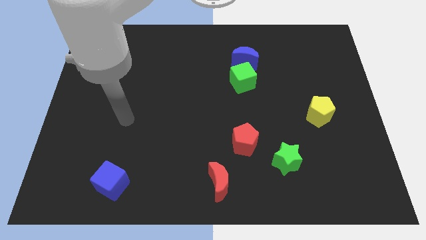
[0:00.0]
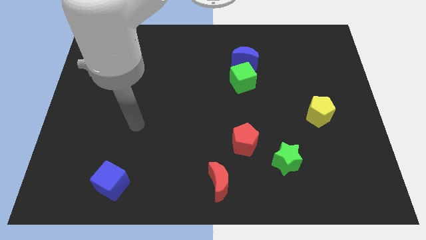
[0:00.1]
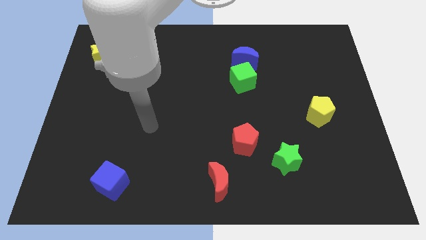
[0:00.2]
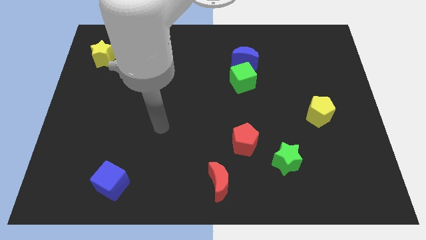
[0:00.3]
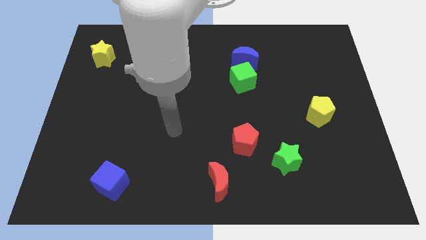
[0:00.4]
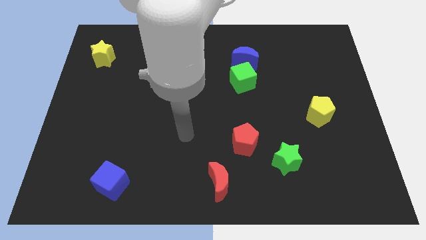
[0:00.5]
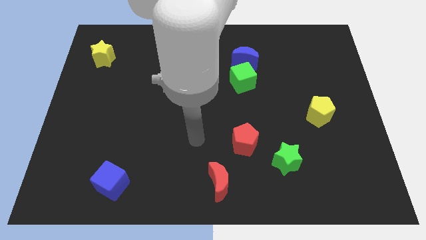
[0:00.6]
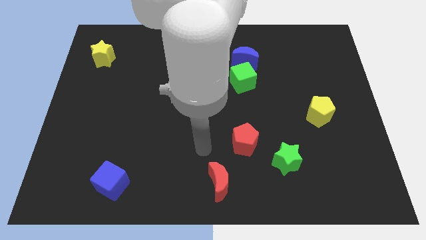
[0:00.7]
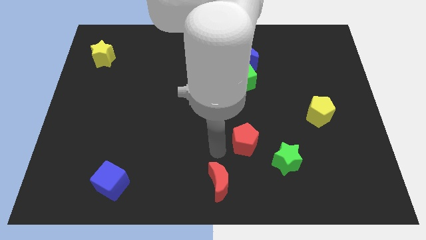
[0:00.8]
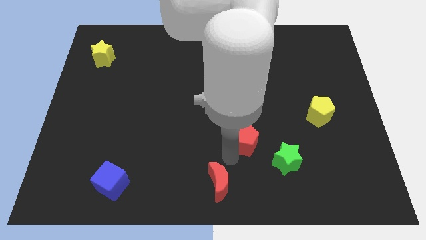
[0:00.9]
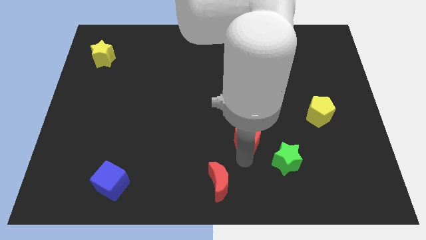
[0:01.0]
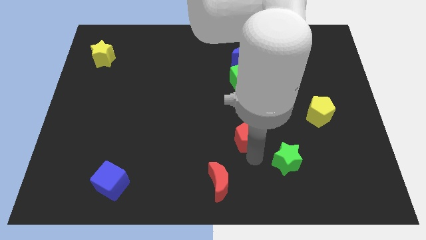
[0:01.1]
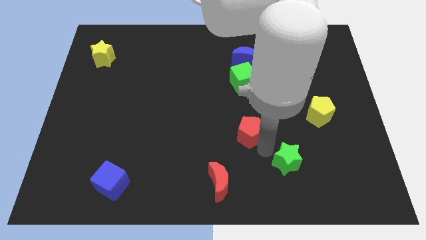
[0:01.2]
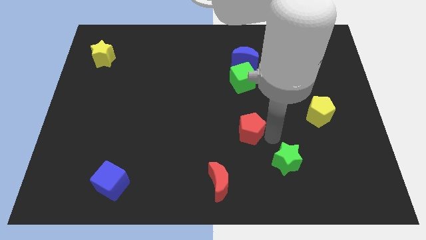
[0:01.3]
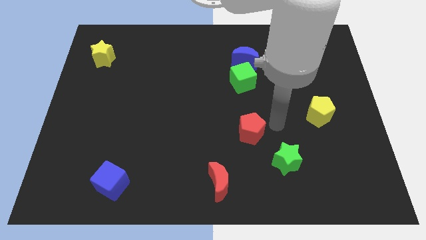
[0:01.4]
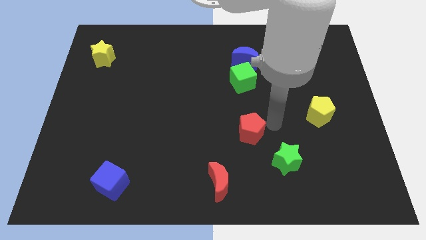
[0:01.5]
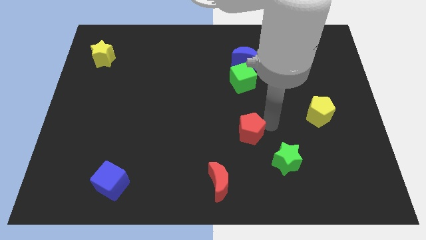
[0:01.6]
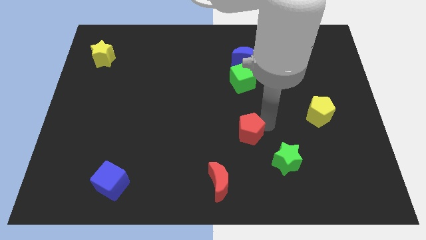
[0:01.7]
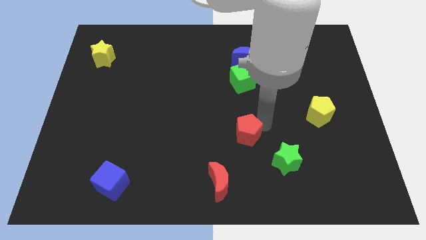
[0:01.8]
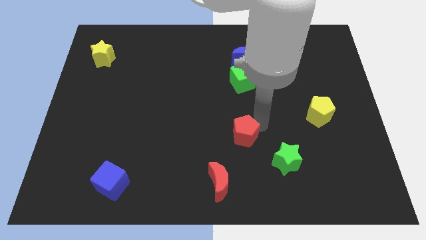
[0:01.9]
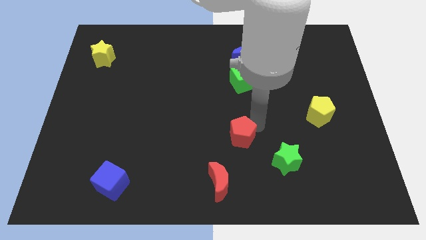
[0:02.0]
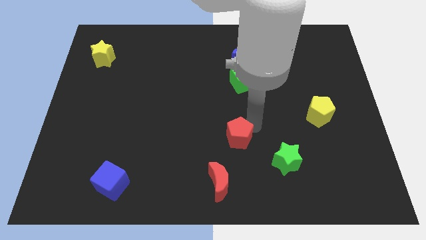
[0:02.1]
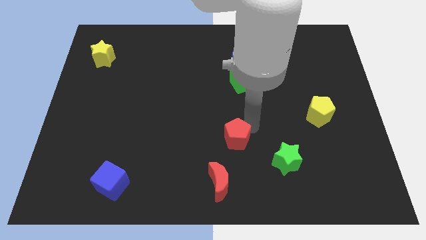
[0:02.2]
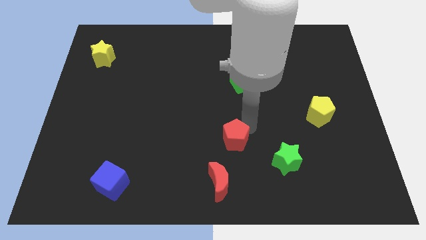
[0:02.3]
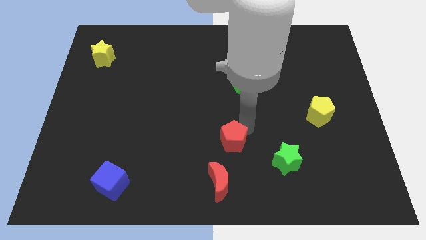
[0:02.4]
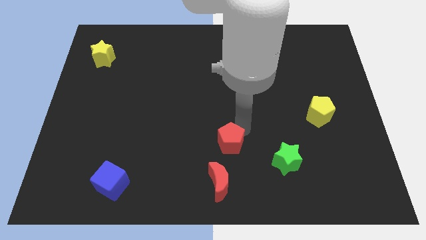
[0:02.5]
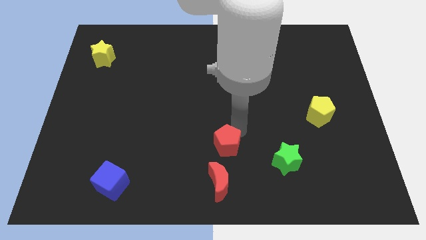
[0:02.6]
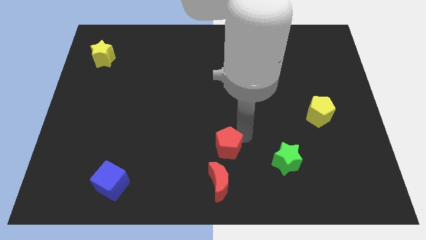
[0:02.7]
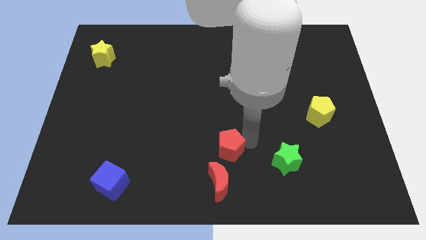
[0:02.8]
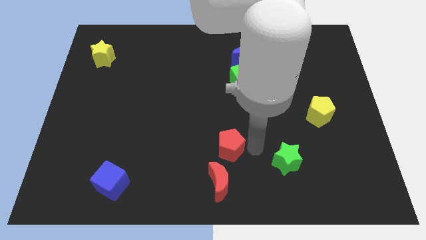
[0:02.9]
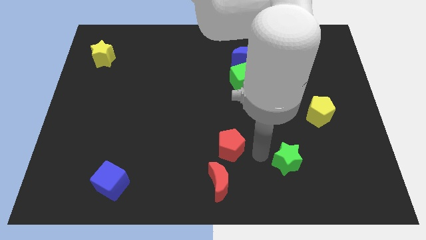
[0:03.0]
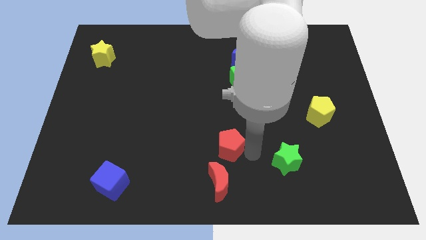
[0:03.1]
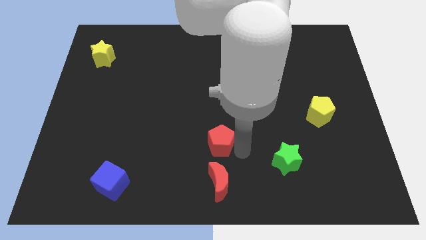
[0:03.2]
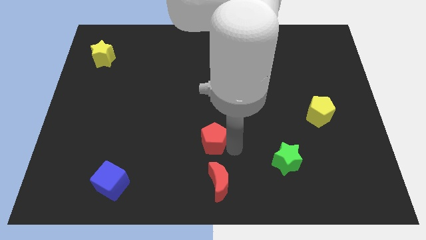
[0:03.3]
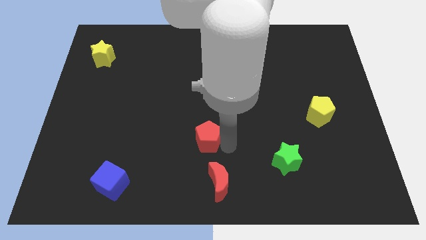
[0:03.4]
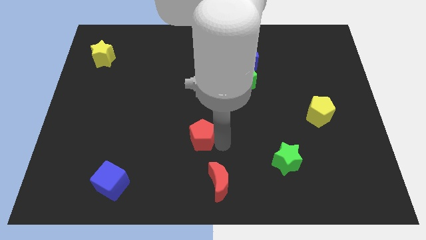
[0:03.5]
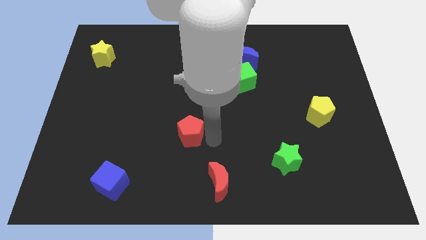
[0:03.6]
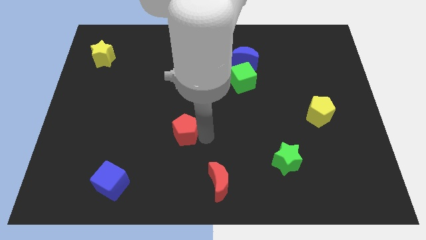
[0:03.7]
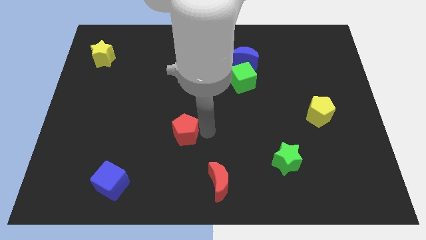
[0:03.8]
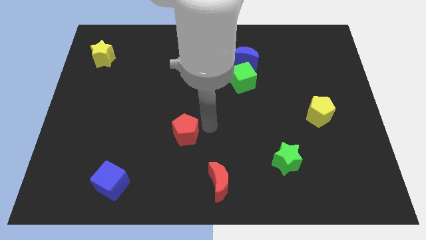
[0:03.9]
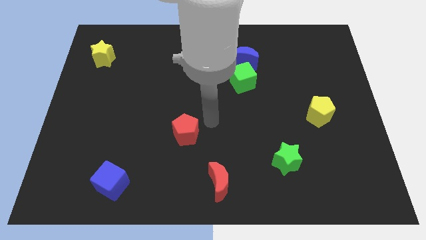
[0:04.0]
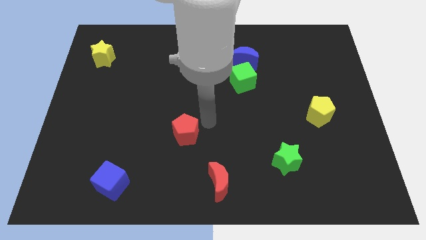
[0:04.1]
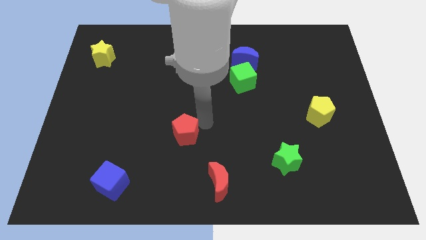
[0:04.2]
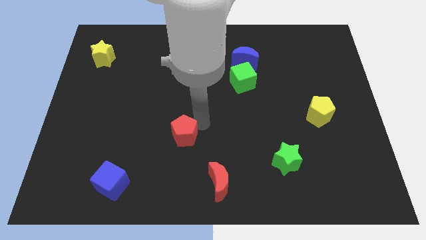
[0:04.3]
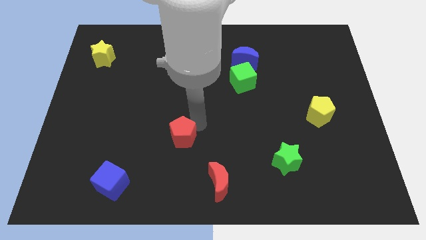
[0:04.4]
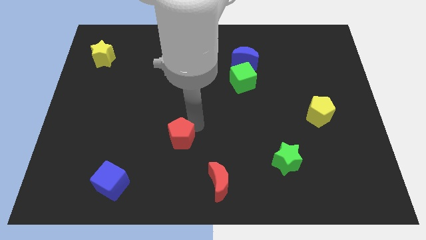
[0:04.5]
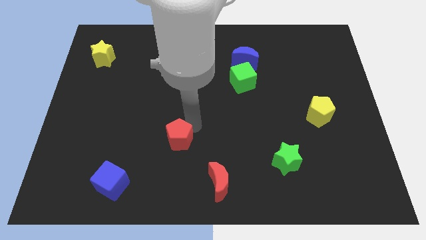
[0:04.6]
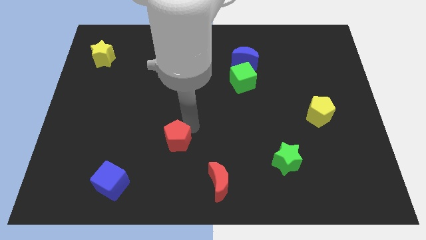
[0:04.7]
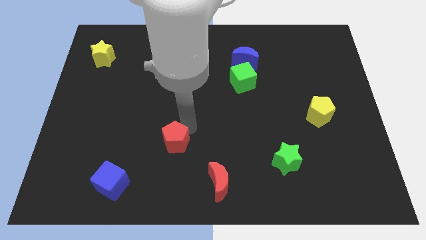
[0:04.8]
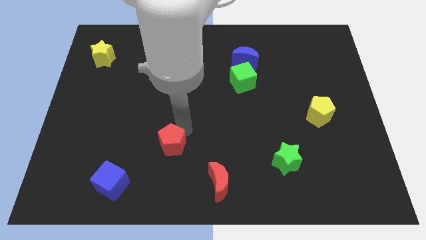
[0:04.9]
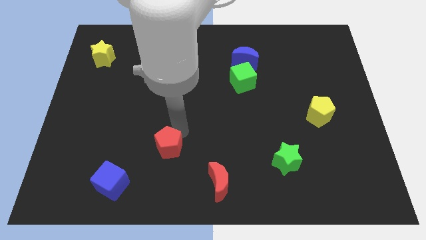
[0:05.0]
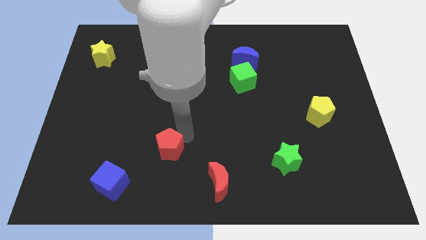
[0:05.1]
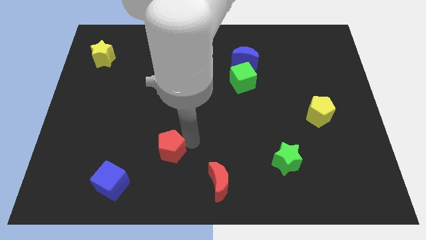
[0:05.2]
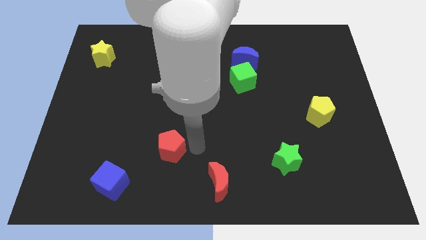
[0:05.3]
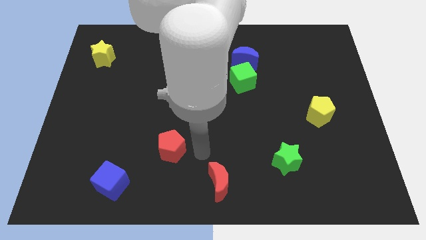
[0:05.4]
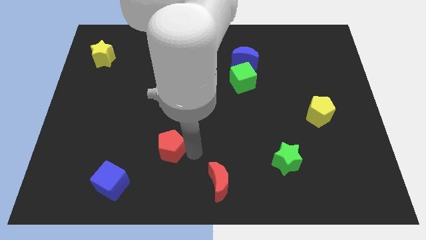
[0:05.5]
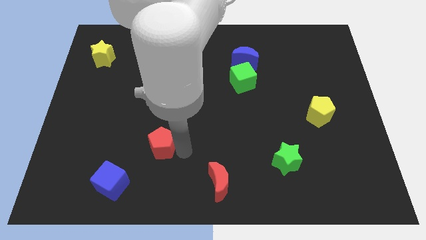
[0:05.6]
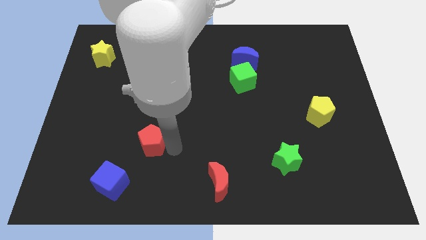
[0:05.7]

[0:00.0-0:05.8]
slide the red pentagon to the left

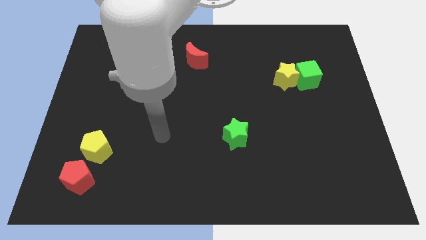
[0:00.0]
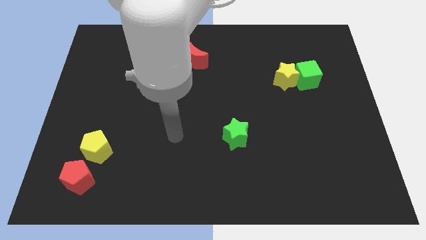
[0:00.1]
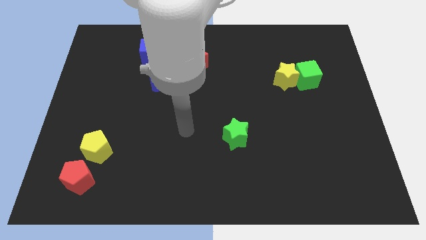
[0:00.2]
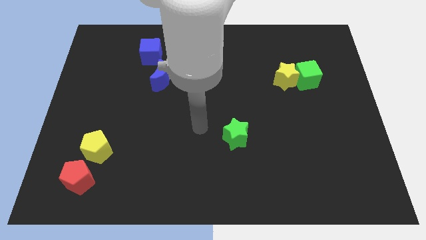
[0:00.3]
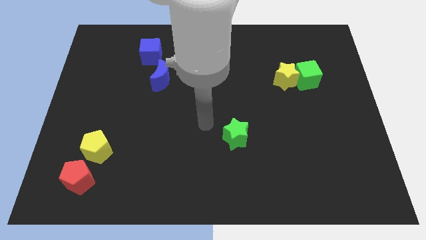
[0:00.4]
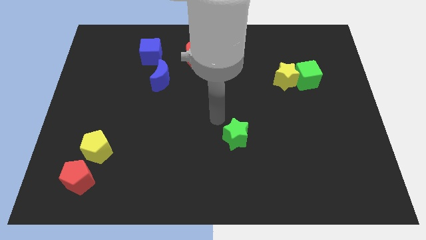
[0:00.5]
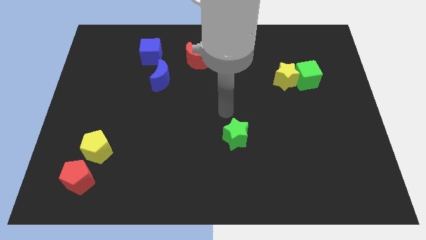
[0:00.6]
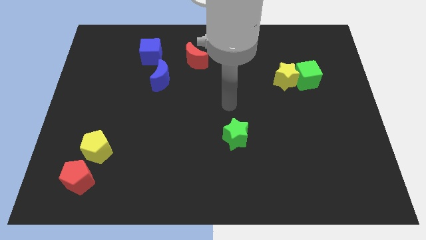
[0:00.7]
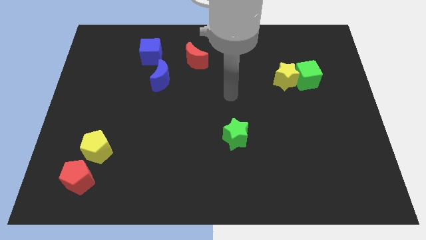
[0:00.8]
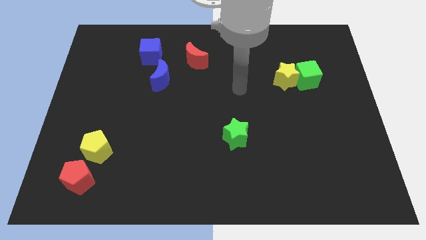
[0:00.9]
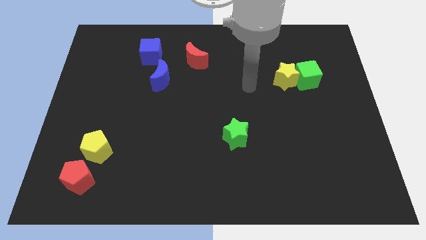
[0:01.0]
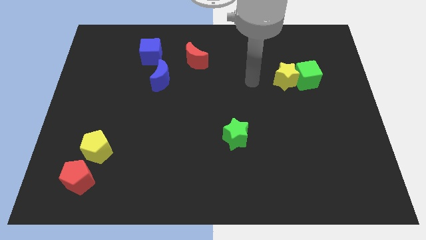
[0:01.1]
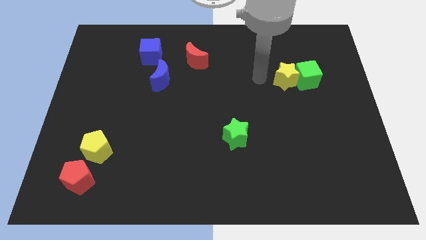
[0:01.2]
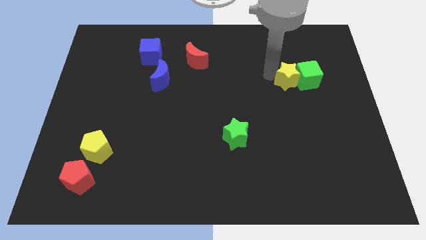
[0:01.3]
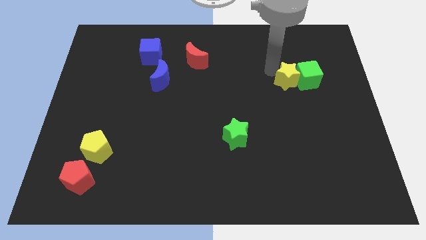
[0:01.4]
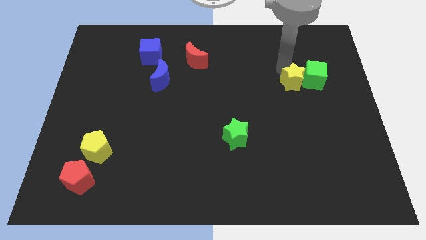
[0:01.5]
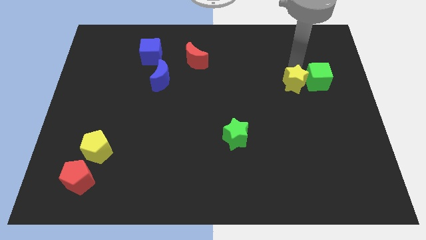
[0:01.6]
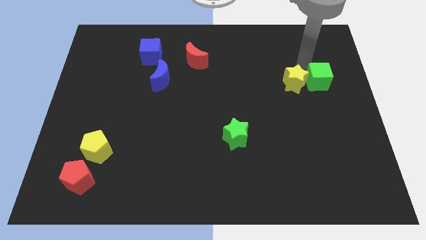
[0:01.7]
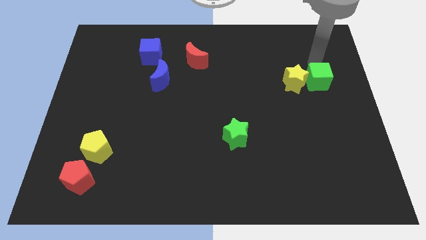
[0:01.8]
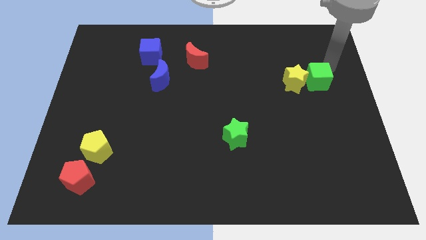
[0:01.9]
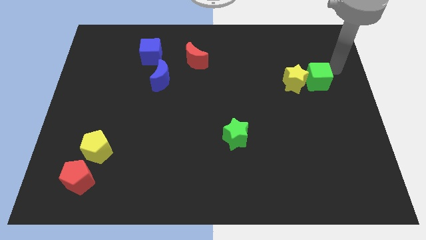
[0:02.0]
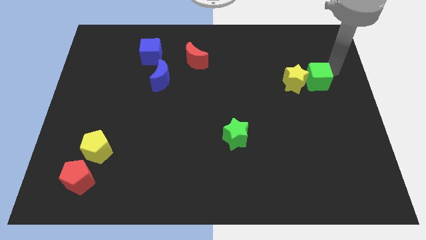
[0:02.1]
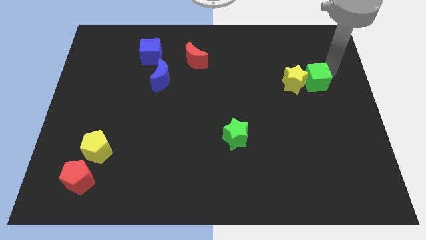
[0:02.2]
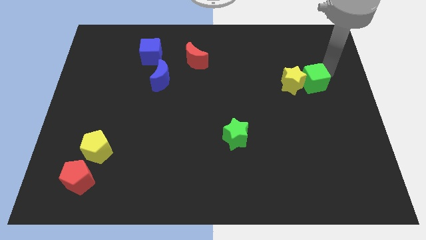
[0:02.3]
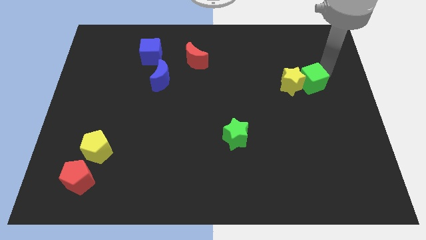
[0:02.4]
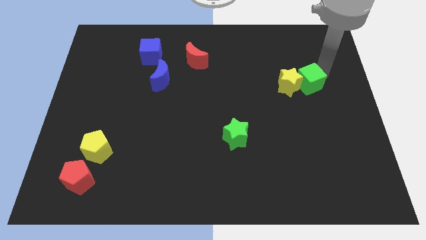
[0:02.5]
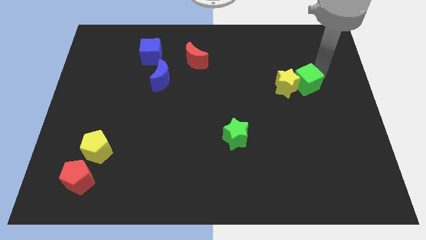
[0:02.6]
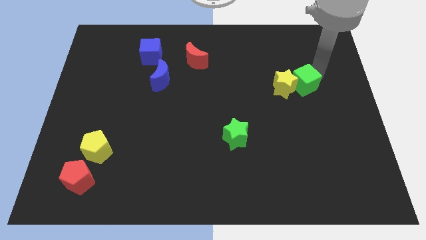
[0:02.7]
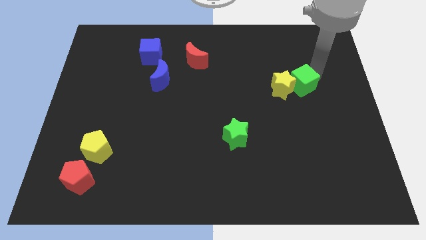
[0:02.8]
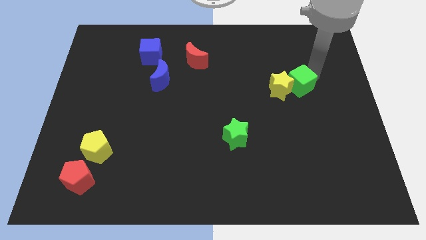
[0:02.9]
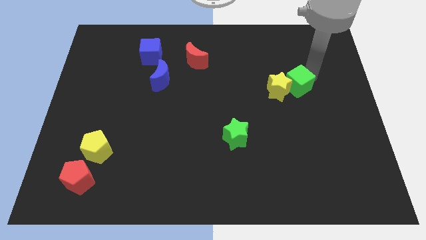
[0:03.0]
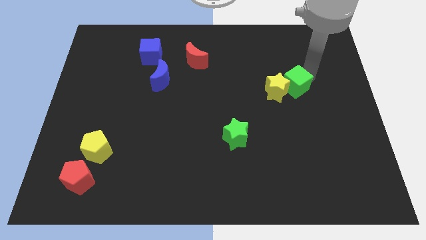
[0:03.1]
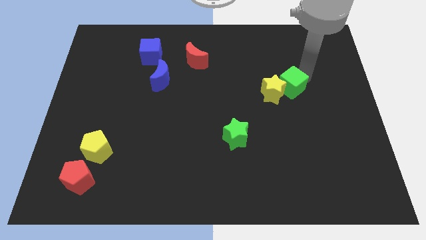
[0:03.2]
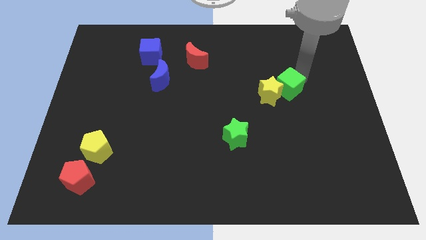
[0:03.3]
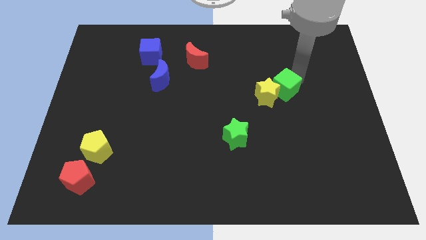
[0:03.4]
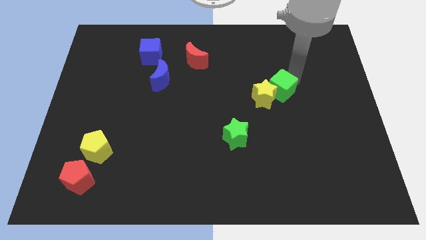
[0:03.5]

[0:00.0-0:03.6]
slightly move the green cube downwards and left
